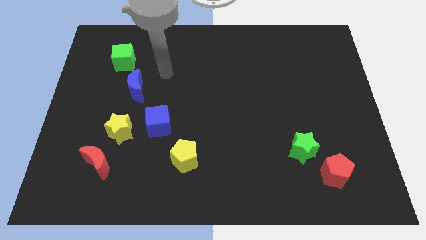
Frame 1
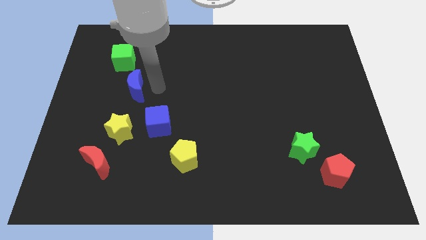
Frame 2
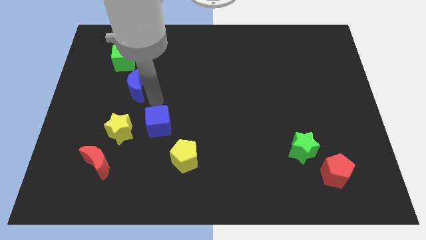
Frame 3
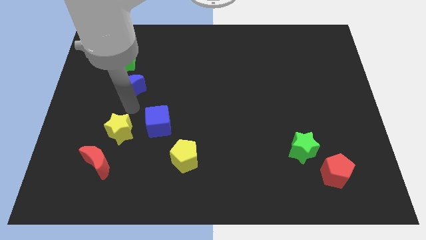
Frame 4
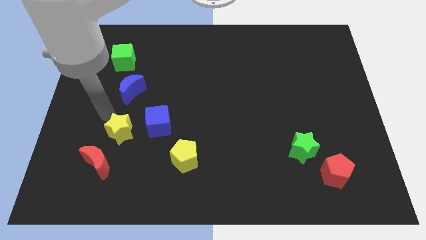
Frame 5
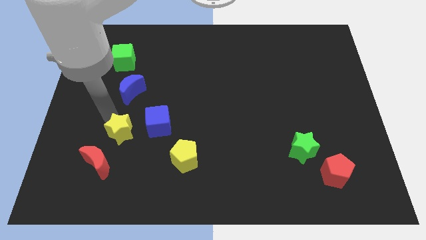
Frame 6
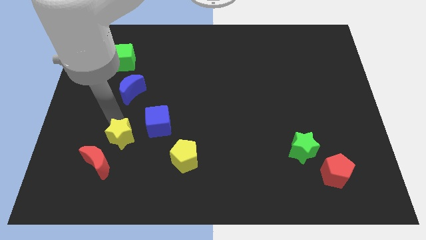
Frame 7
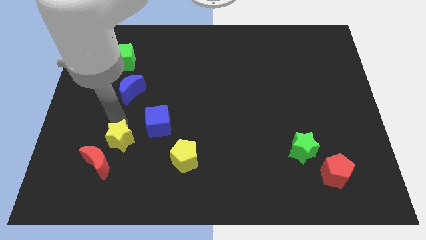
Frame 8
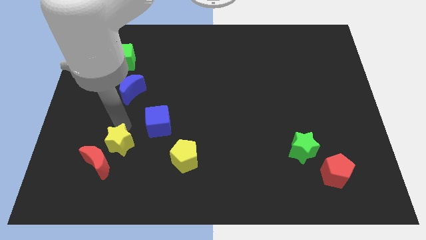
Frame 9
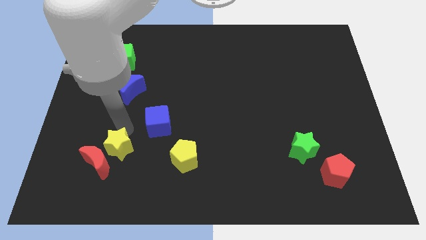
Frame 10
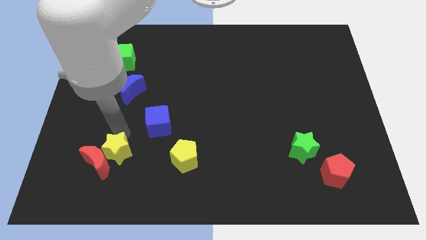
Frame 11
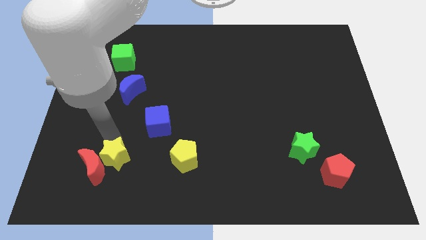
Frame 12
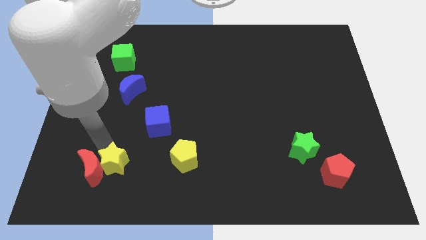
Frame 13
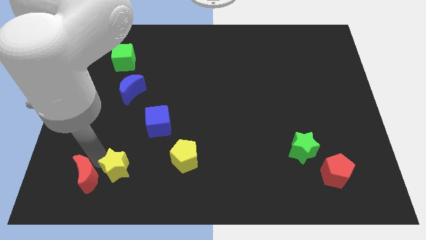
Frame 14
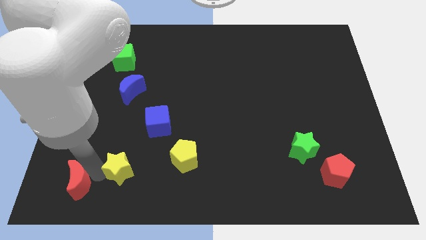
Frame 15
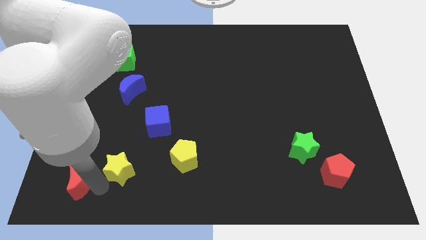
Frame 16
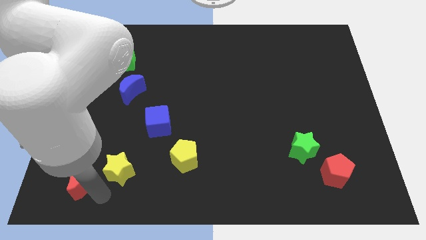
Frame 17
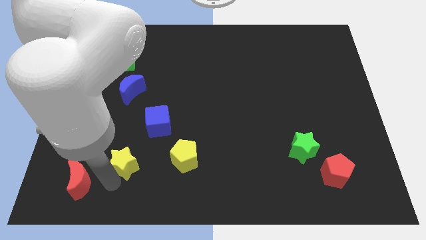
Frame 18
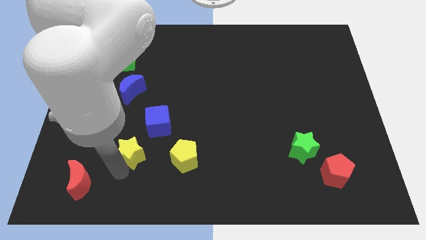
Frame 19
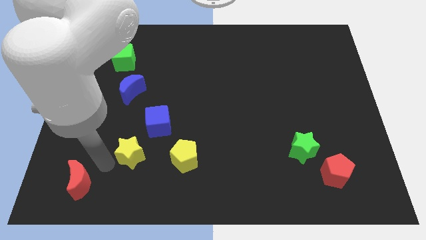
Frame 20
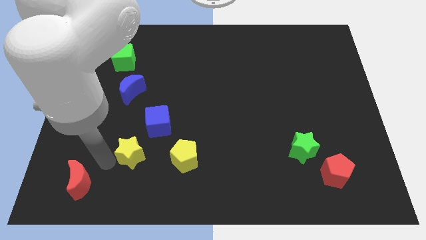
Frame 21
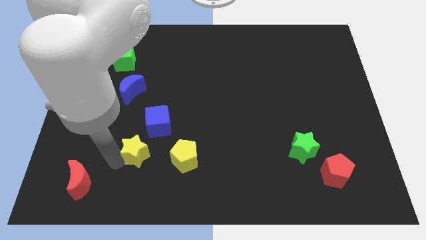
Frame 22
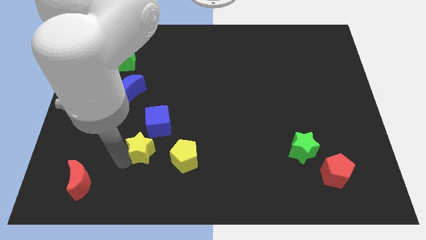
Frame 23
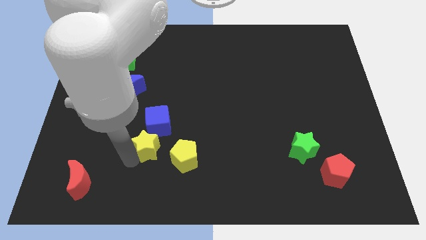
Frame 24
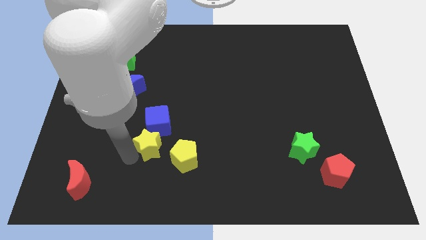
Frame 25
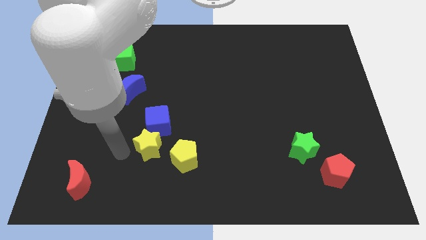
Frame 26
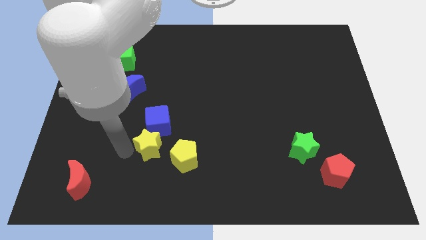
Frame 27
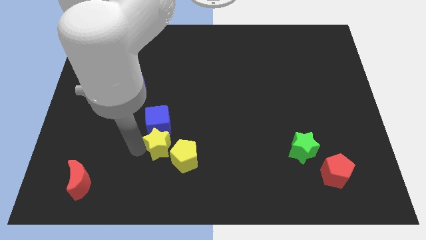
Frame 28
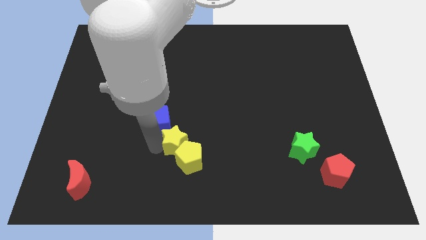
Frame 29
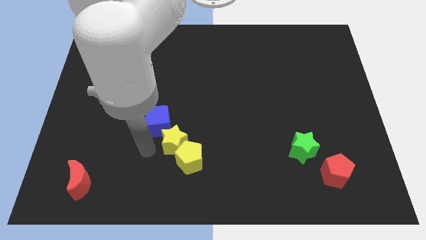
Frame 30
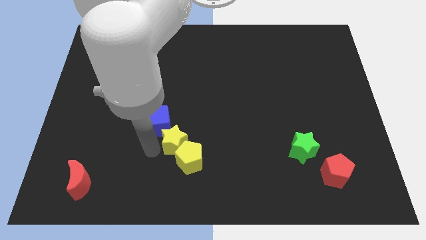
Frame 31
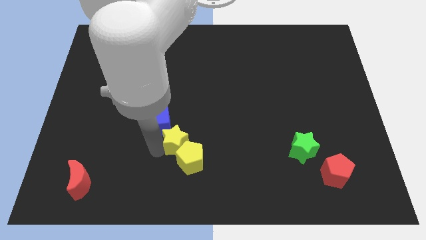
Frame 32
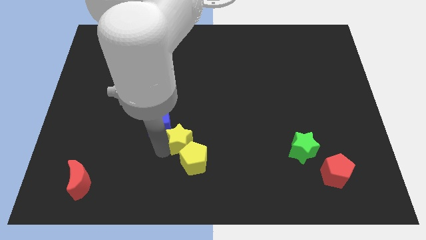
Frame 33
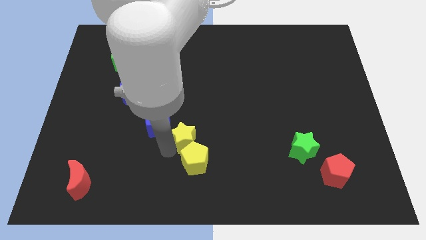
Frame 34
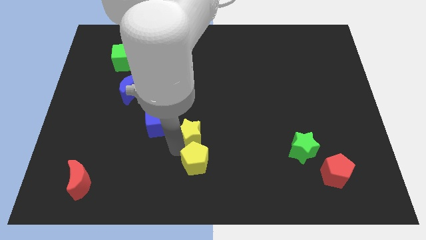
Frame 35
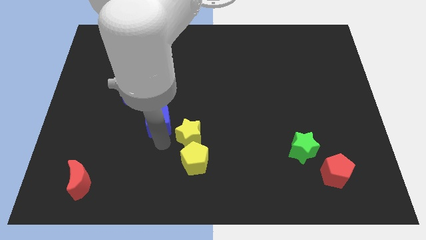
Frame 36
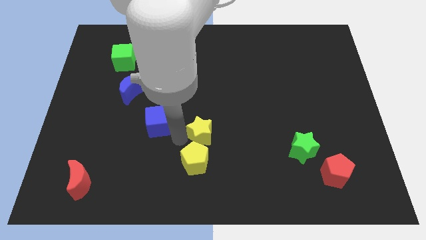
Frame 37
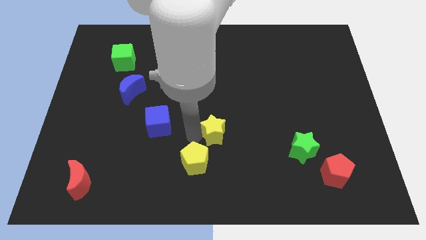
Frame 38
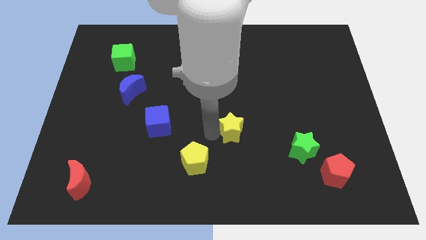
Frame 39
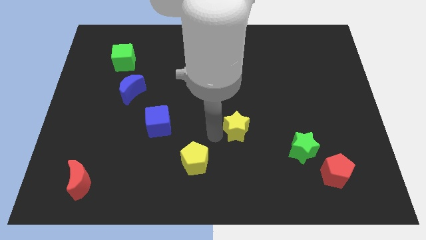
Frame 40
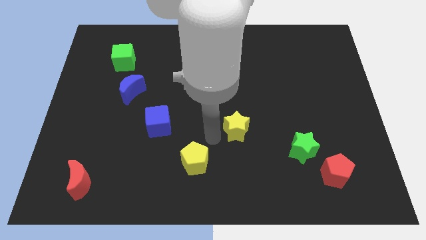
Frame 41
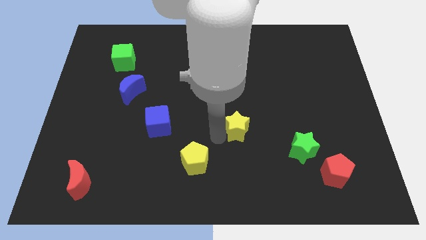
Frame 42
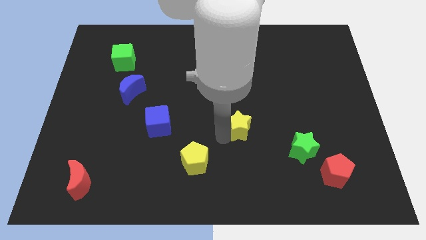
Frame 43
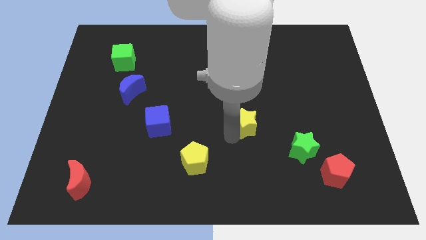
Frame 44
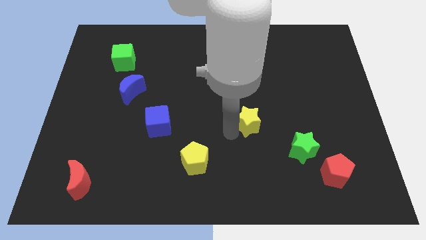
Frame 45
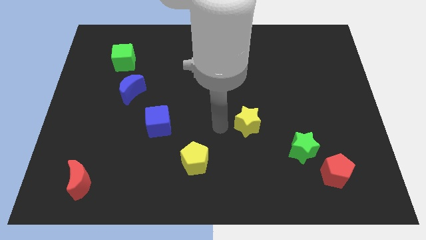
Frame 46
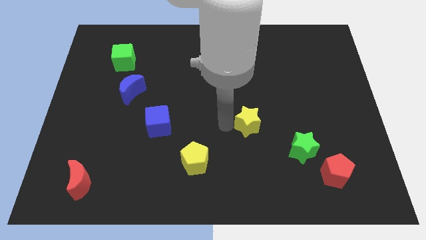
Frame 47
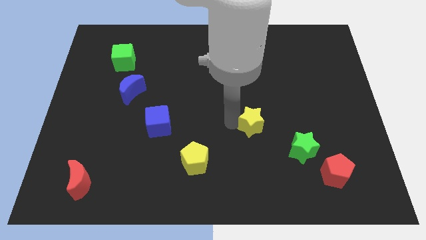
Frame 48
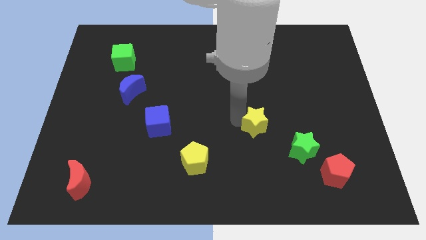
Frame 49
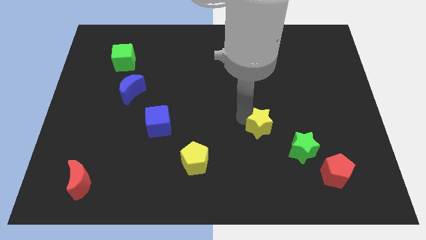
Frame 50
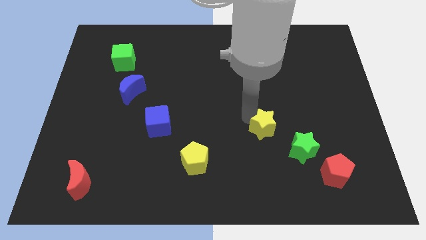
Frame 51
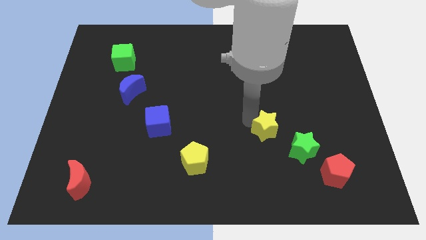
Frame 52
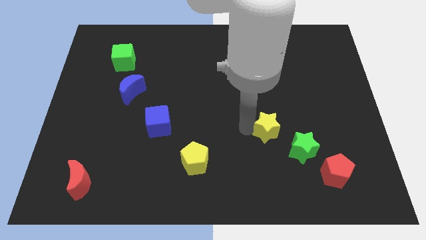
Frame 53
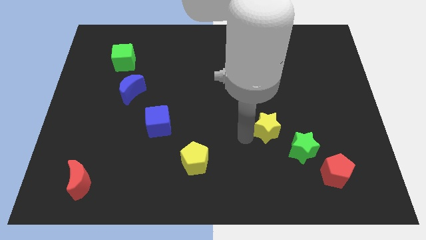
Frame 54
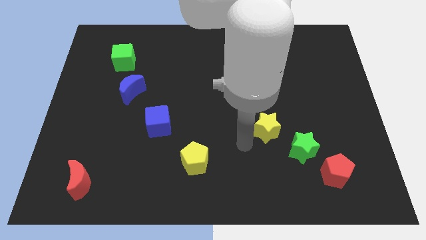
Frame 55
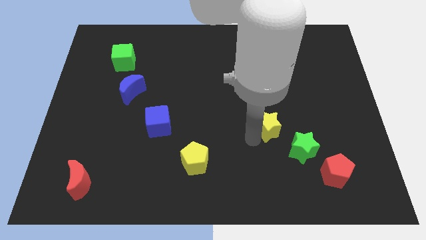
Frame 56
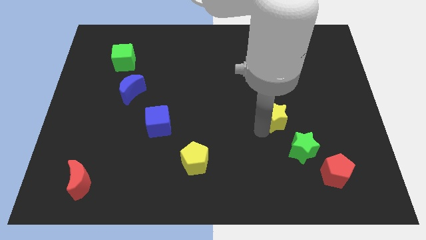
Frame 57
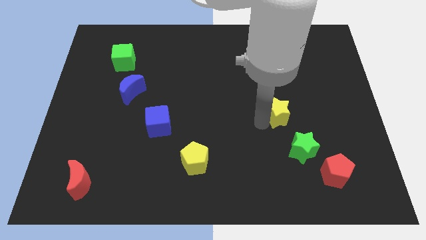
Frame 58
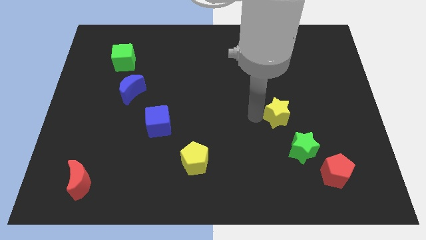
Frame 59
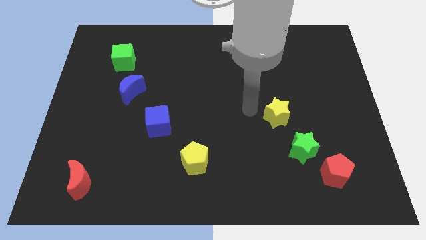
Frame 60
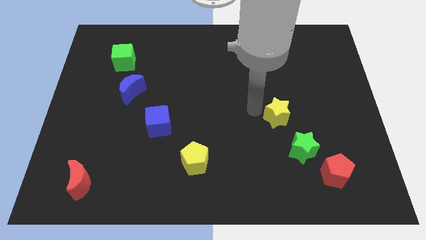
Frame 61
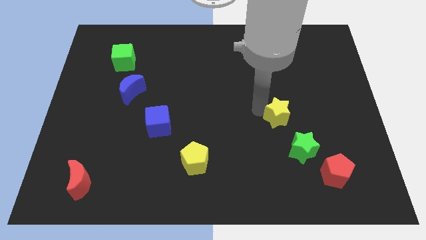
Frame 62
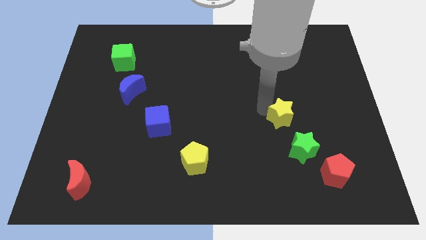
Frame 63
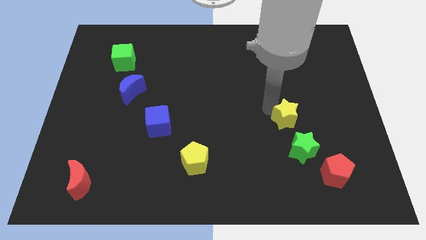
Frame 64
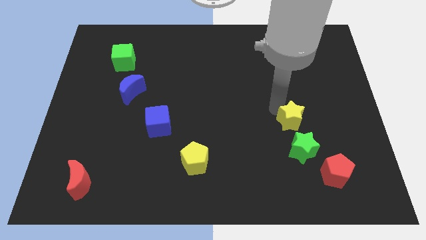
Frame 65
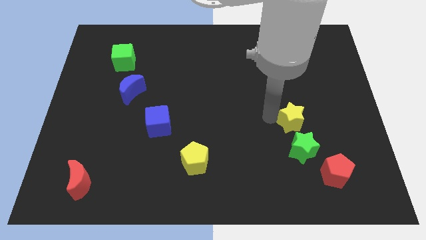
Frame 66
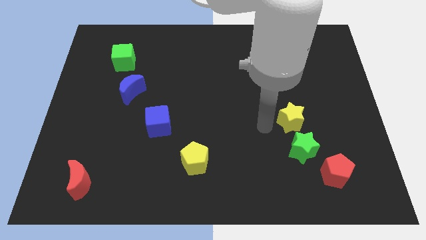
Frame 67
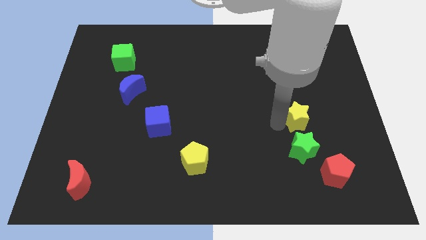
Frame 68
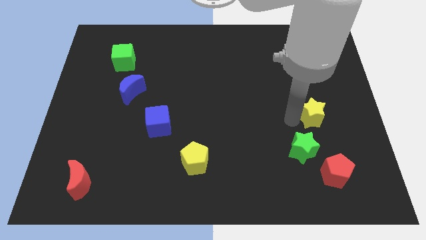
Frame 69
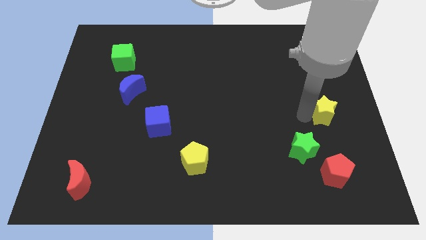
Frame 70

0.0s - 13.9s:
move the yellow star to the center right
